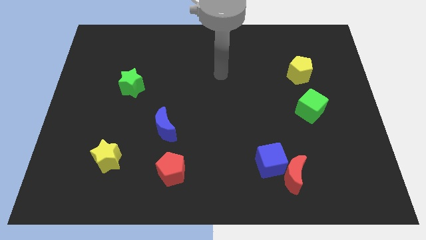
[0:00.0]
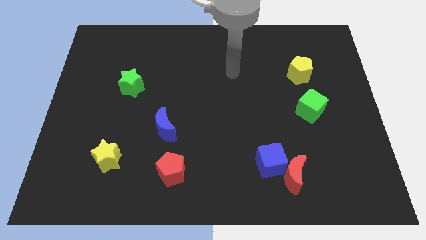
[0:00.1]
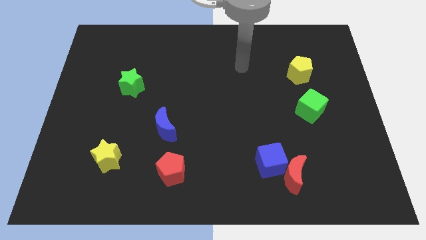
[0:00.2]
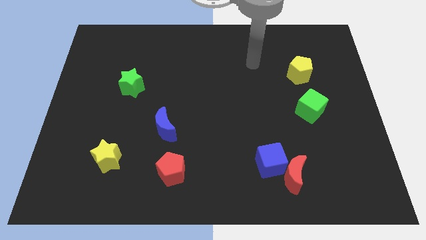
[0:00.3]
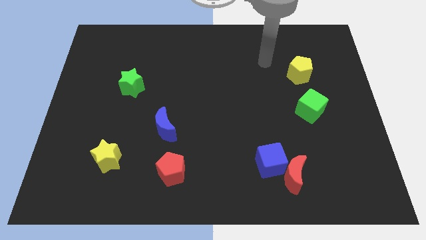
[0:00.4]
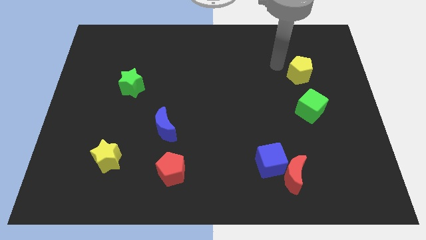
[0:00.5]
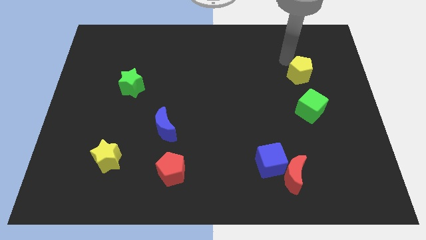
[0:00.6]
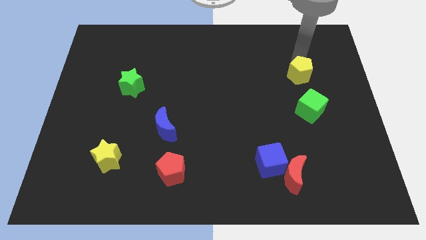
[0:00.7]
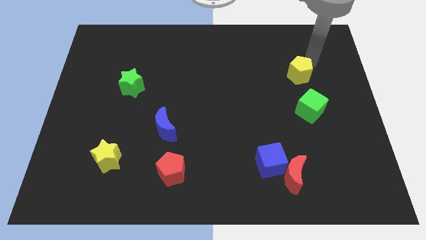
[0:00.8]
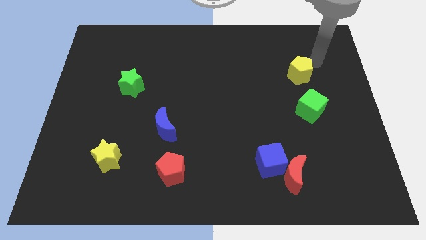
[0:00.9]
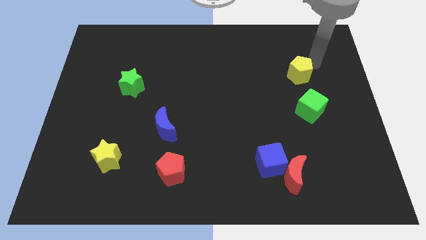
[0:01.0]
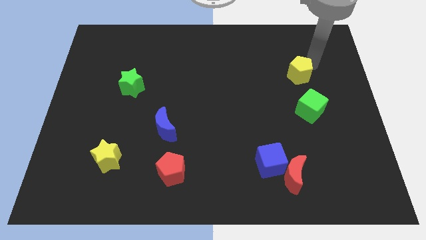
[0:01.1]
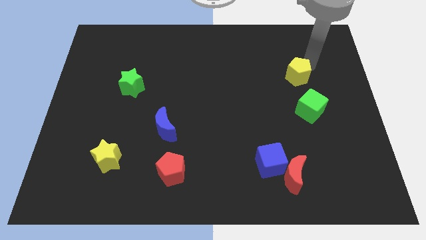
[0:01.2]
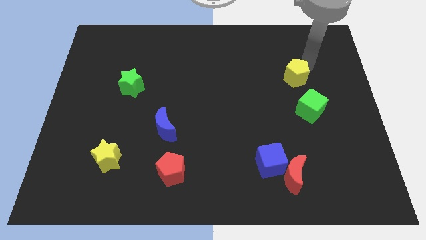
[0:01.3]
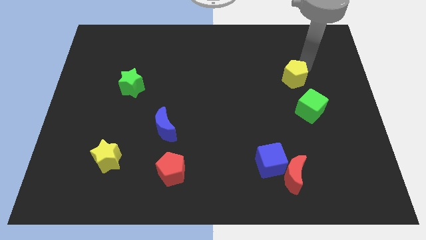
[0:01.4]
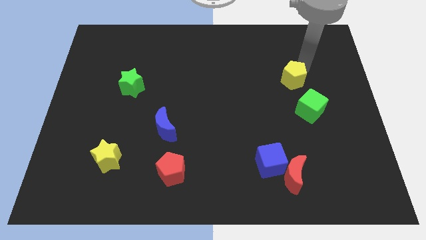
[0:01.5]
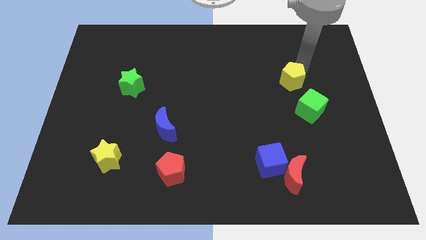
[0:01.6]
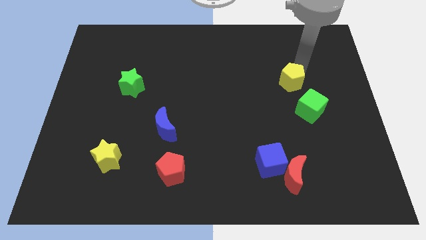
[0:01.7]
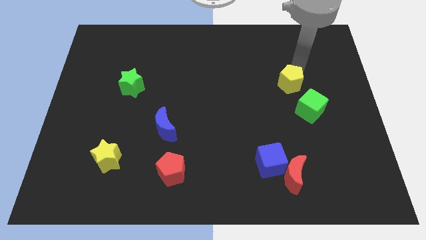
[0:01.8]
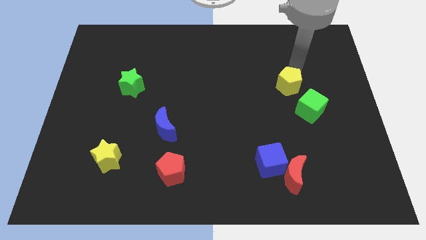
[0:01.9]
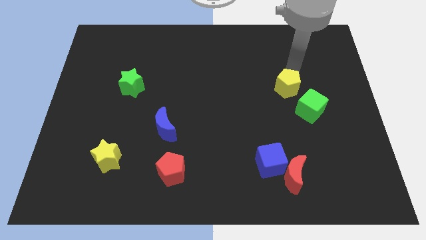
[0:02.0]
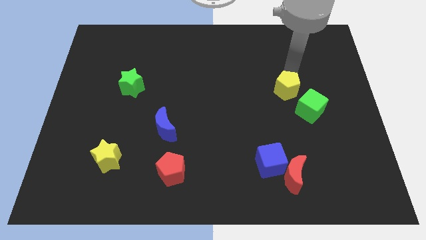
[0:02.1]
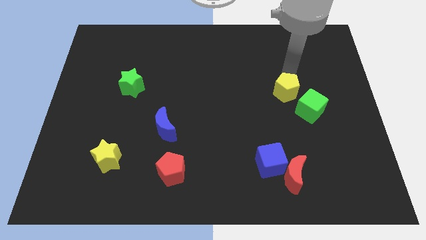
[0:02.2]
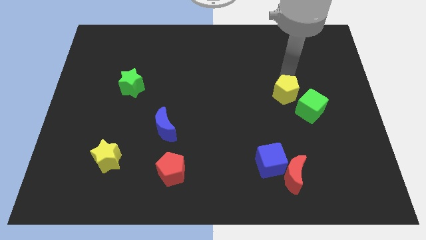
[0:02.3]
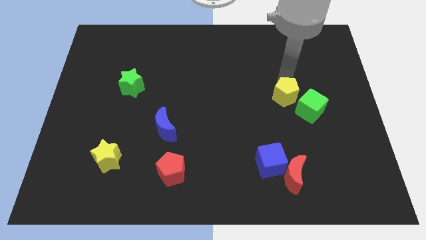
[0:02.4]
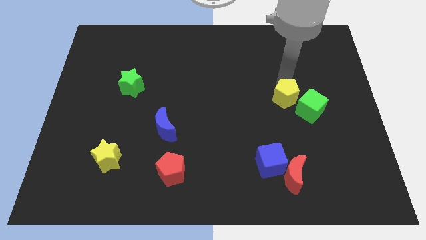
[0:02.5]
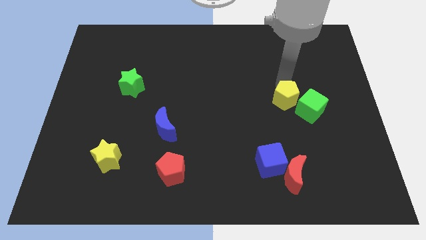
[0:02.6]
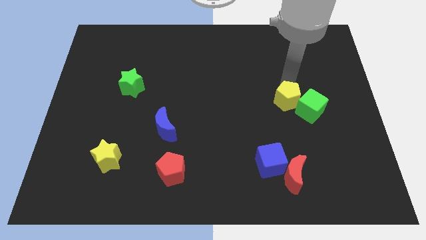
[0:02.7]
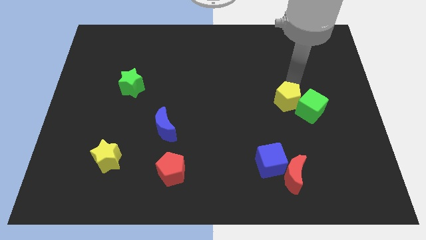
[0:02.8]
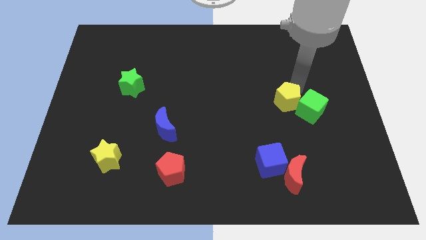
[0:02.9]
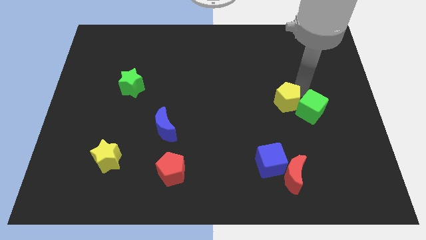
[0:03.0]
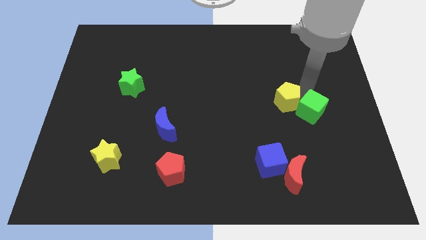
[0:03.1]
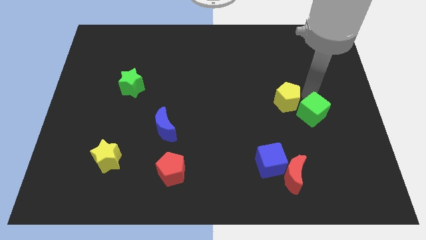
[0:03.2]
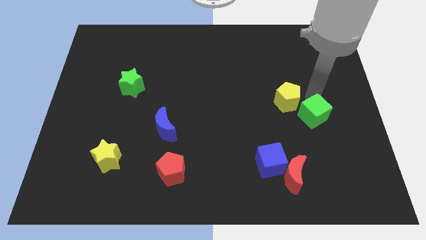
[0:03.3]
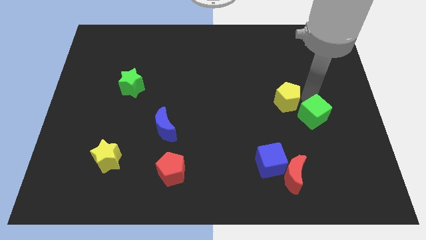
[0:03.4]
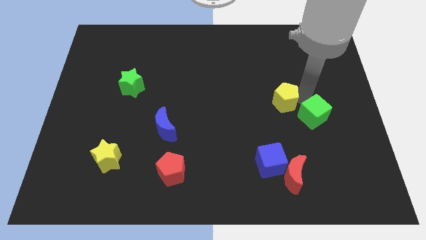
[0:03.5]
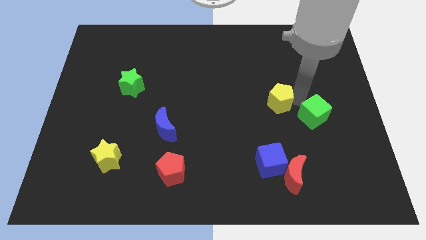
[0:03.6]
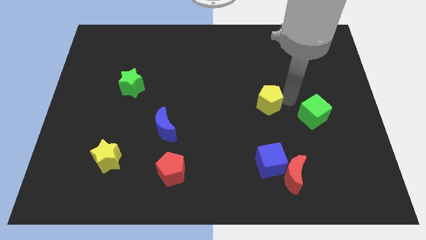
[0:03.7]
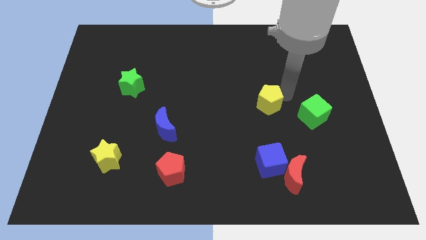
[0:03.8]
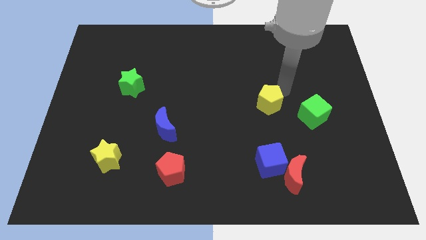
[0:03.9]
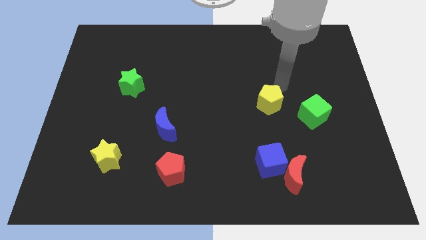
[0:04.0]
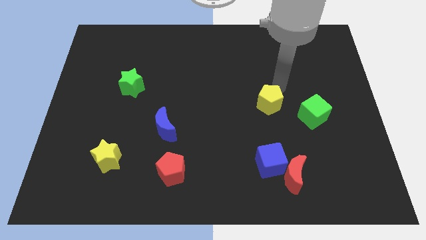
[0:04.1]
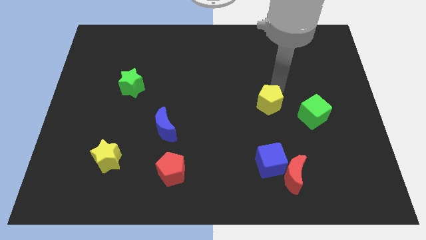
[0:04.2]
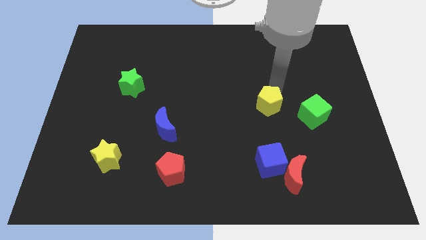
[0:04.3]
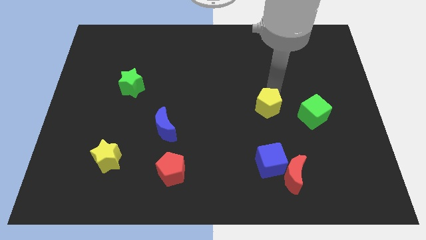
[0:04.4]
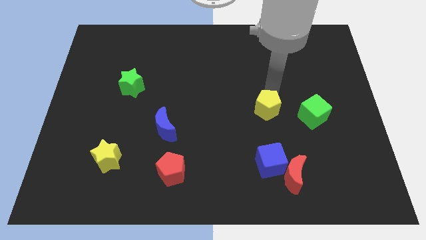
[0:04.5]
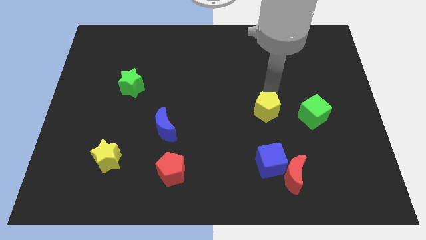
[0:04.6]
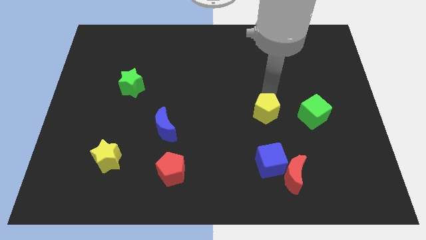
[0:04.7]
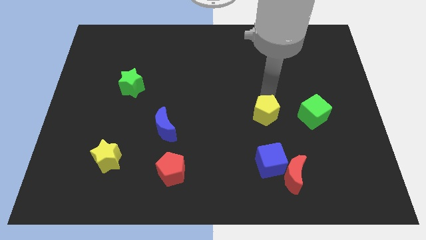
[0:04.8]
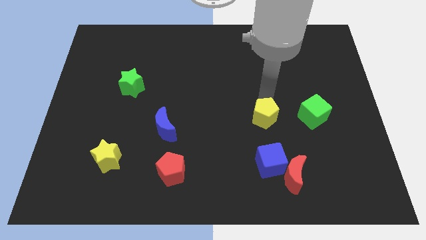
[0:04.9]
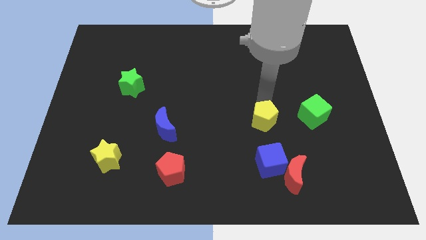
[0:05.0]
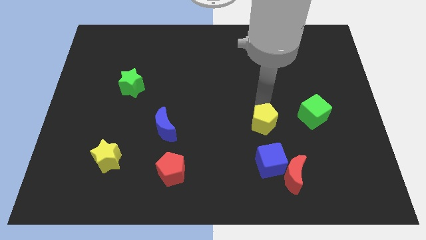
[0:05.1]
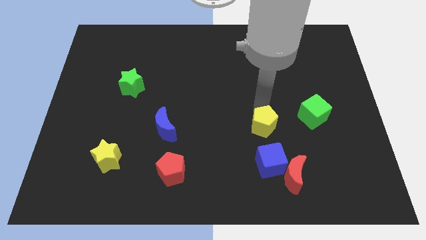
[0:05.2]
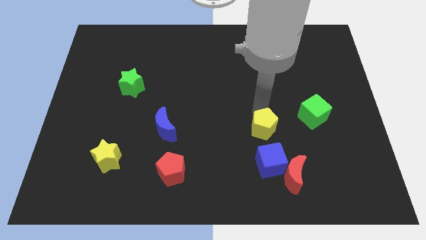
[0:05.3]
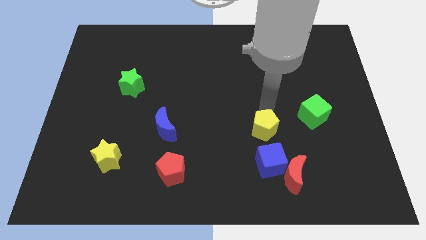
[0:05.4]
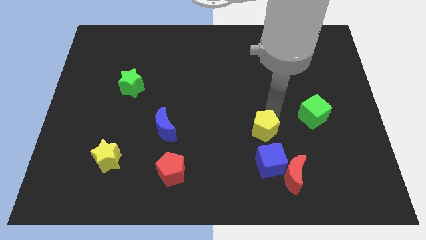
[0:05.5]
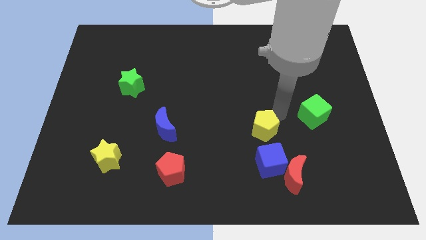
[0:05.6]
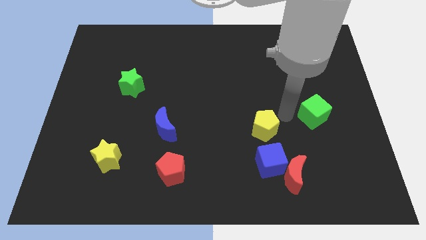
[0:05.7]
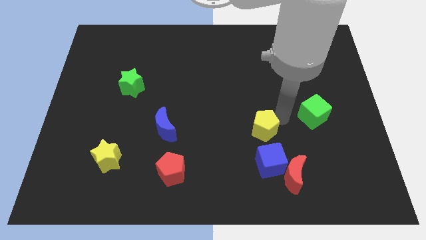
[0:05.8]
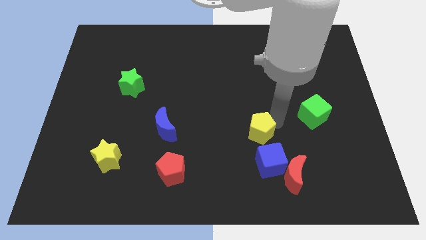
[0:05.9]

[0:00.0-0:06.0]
slide the yellow pentagon to the top left side of the blue cube
